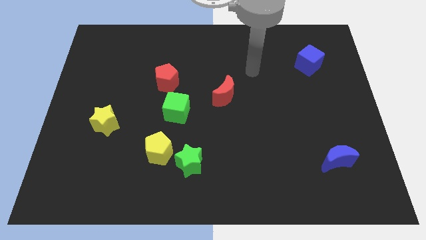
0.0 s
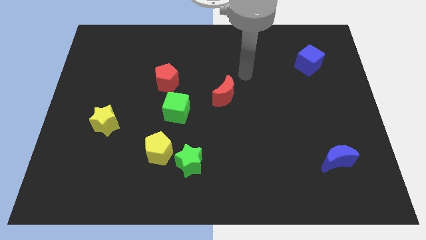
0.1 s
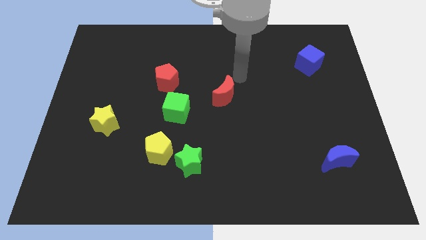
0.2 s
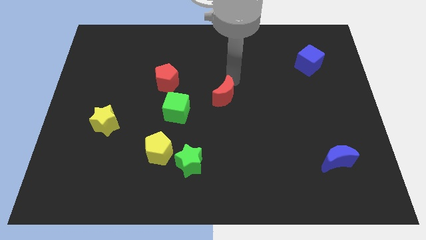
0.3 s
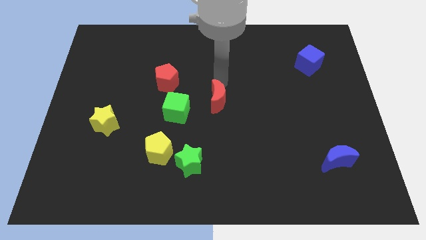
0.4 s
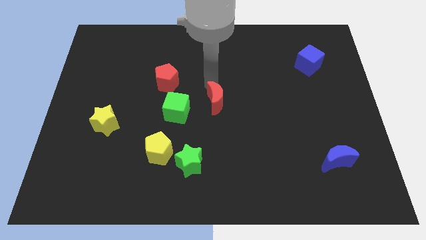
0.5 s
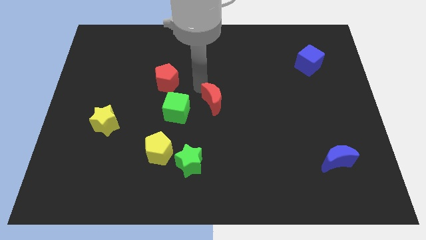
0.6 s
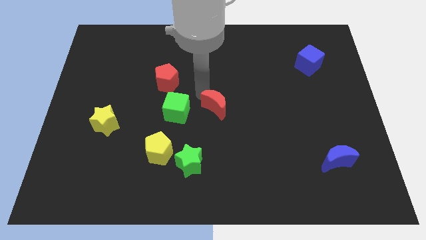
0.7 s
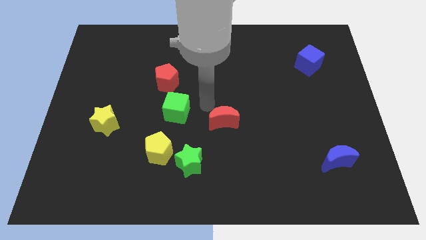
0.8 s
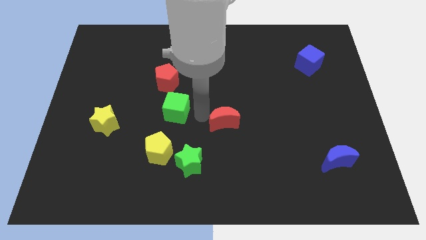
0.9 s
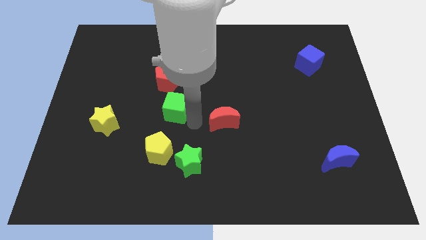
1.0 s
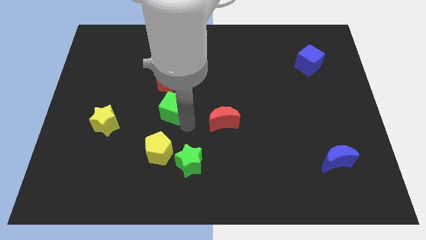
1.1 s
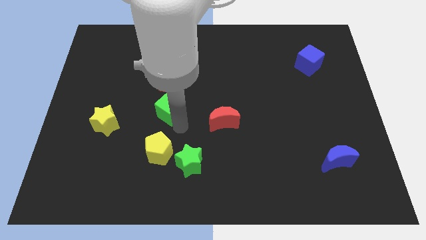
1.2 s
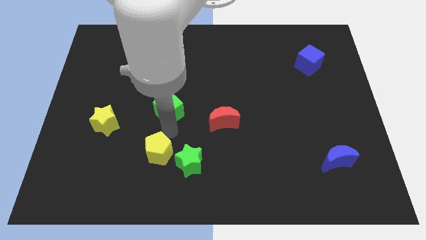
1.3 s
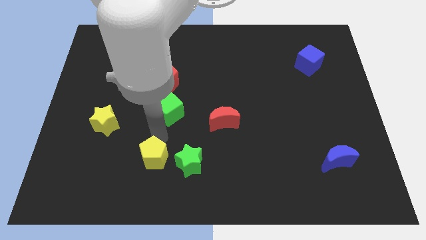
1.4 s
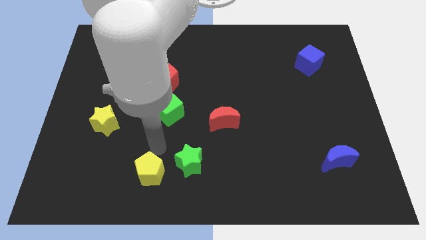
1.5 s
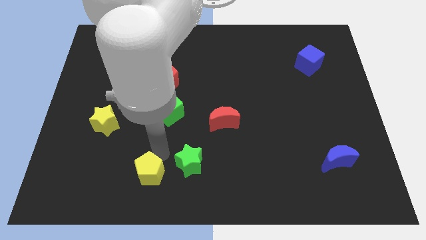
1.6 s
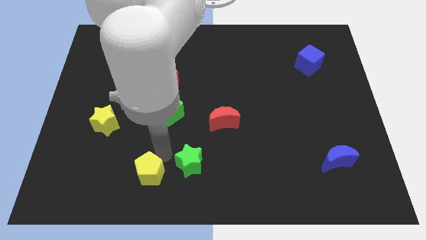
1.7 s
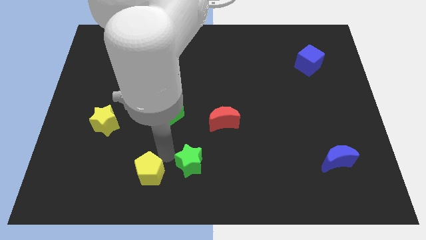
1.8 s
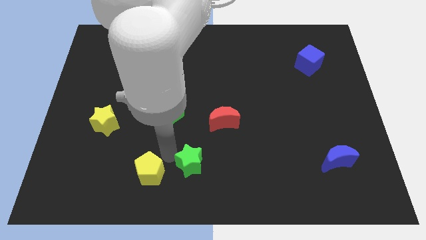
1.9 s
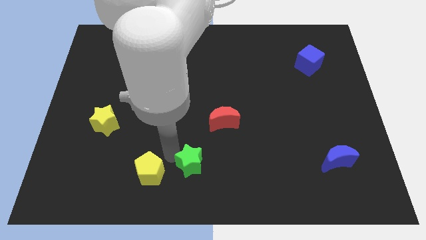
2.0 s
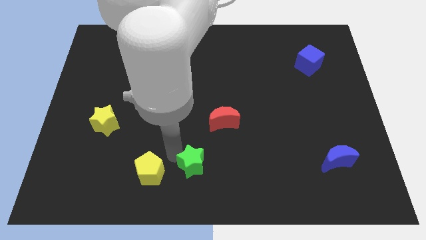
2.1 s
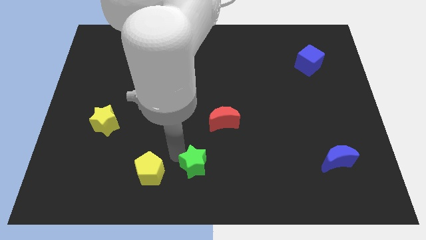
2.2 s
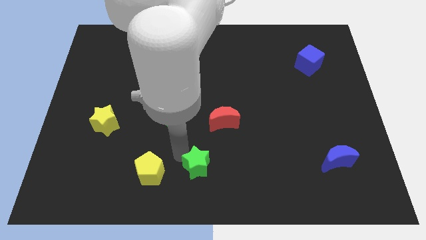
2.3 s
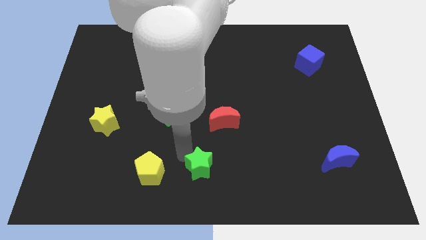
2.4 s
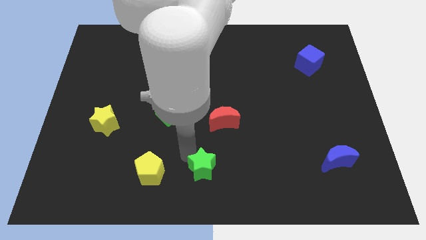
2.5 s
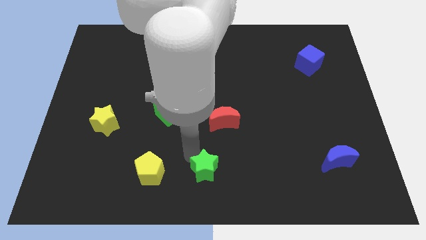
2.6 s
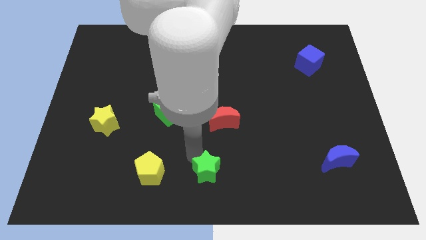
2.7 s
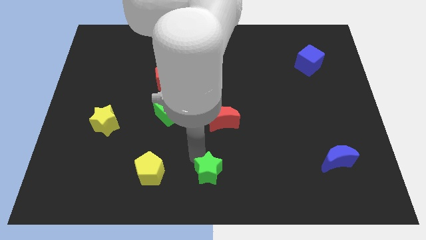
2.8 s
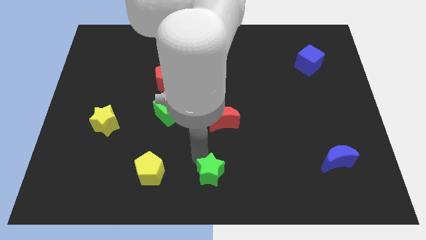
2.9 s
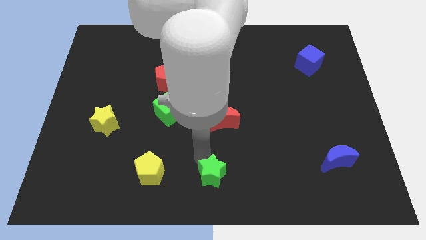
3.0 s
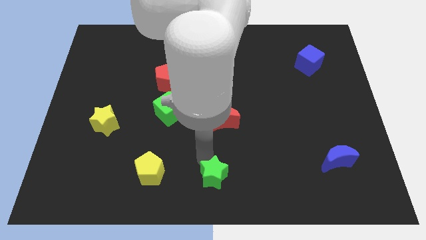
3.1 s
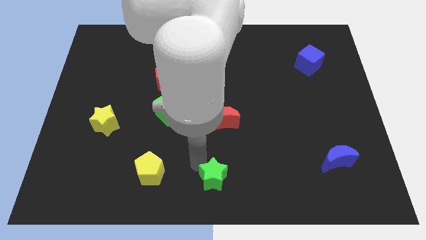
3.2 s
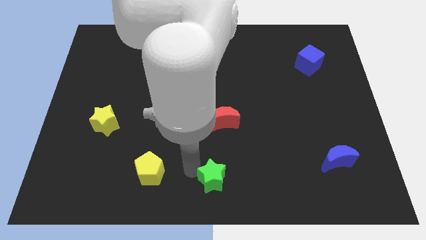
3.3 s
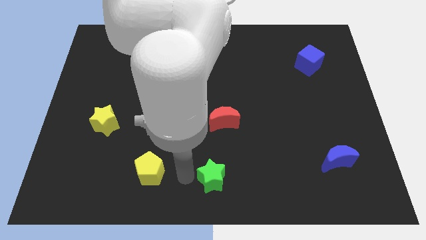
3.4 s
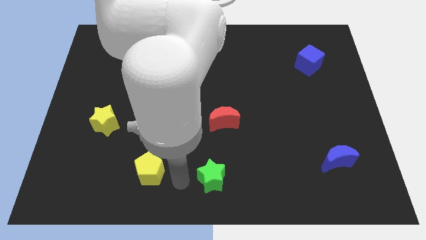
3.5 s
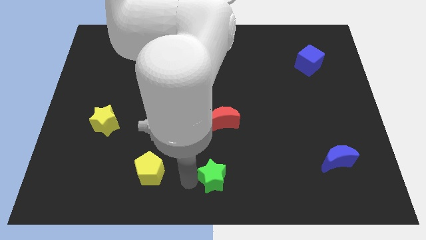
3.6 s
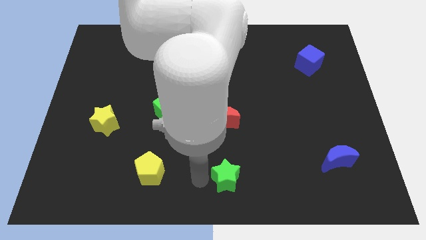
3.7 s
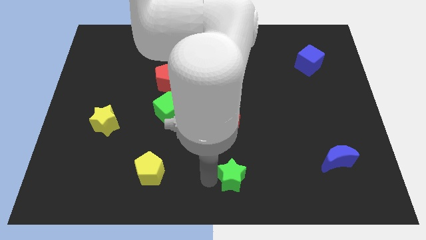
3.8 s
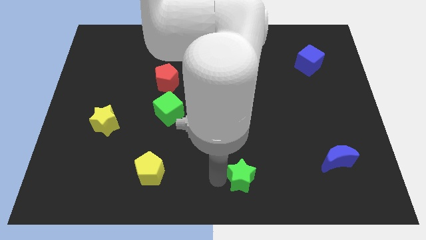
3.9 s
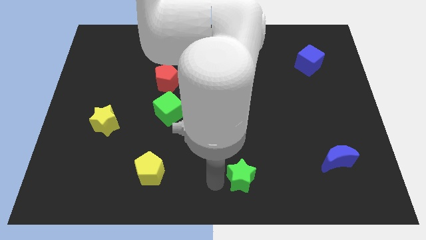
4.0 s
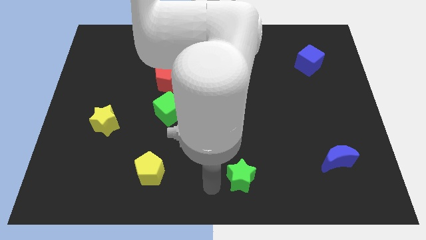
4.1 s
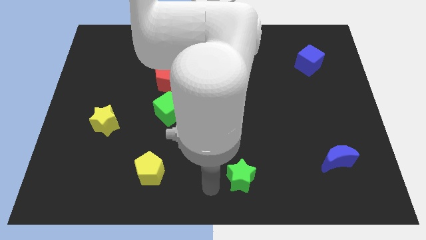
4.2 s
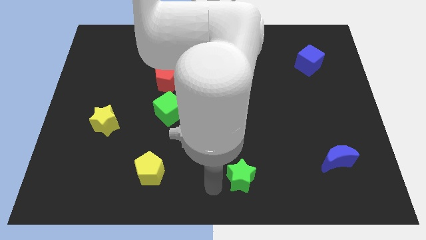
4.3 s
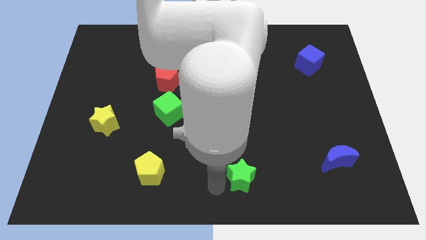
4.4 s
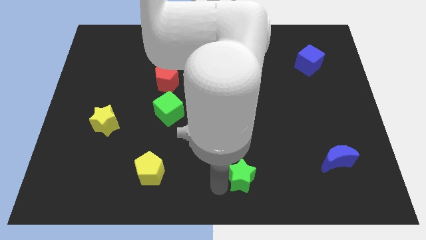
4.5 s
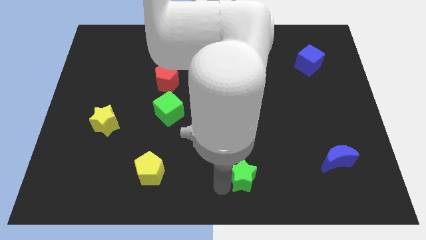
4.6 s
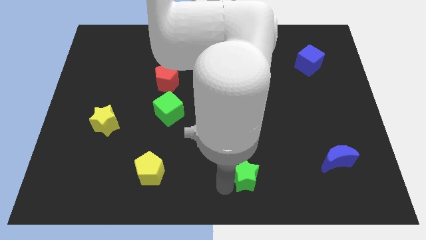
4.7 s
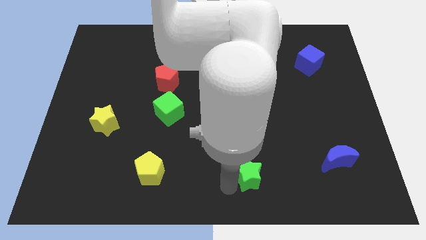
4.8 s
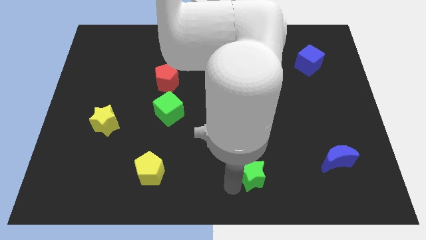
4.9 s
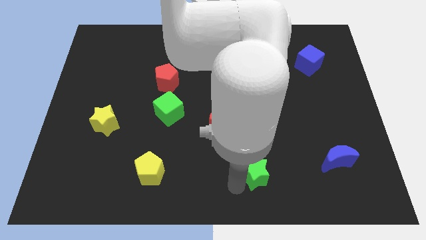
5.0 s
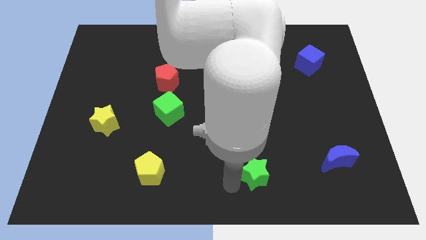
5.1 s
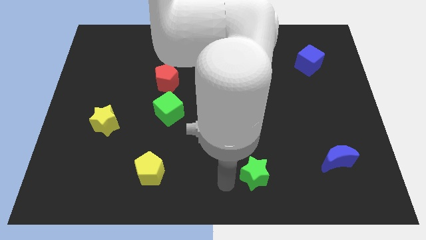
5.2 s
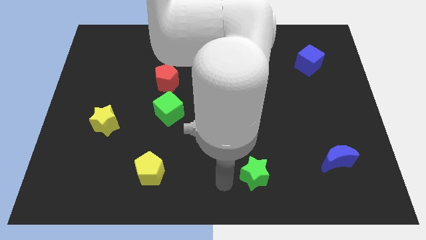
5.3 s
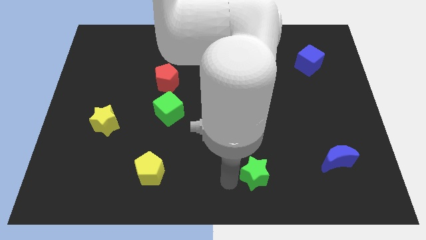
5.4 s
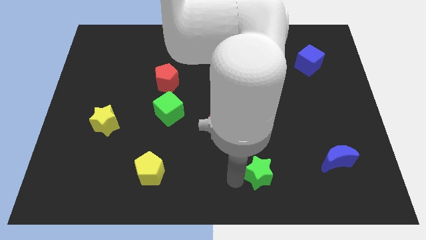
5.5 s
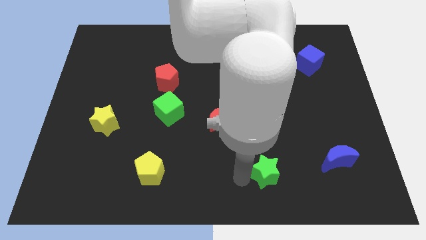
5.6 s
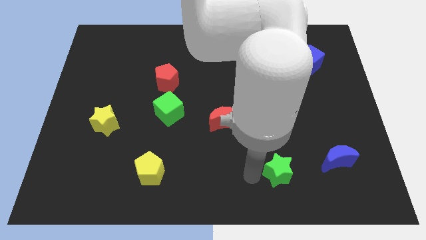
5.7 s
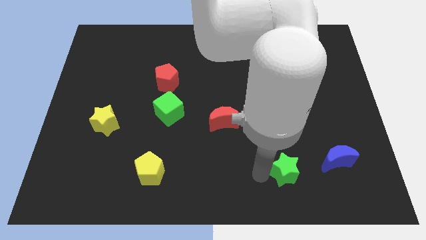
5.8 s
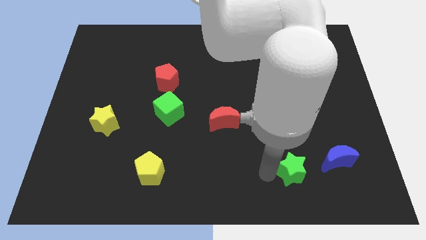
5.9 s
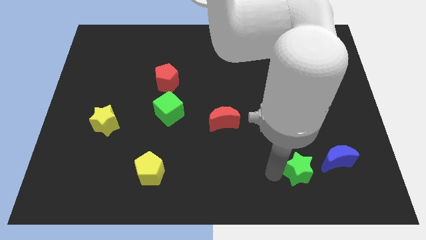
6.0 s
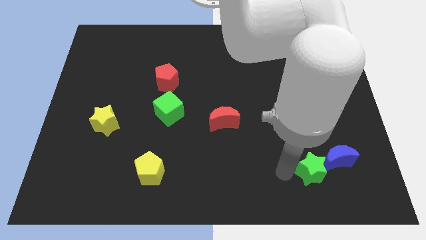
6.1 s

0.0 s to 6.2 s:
slide the green star towards the blue moon

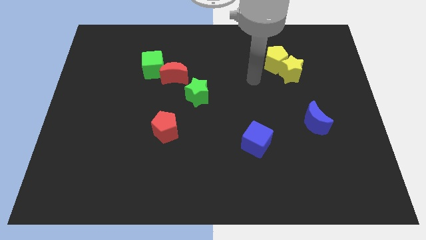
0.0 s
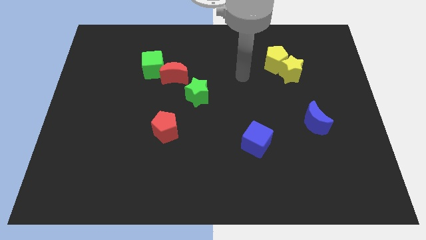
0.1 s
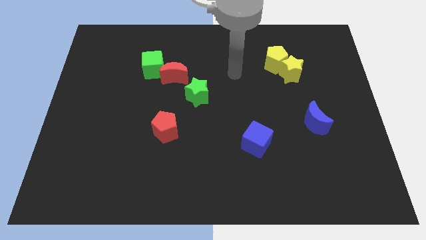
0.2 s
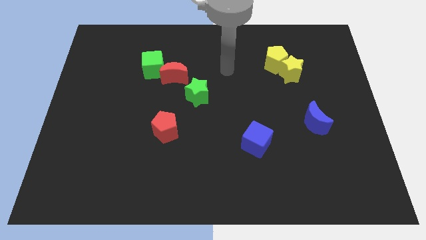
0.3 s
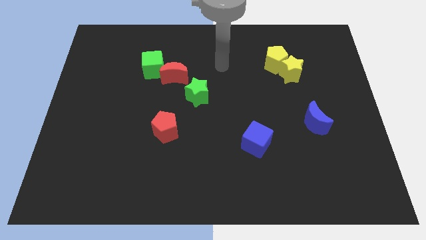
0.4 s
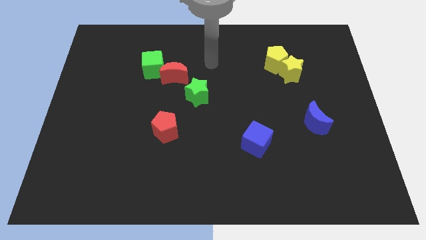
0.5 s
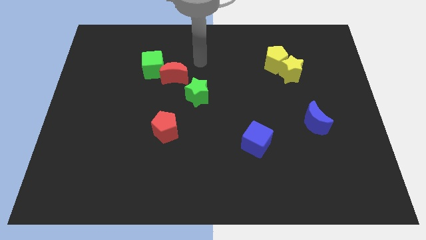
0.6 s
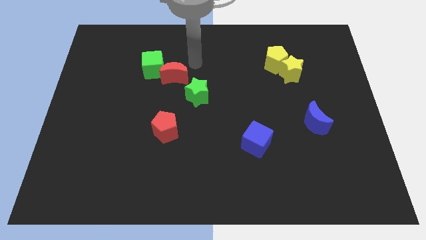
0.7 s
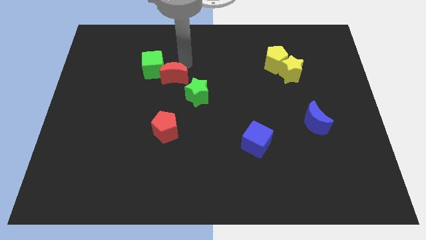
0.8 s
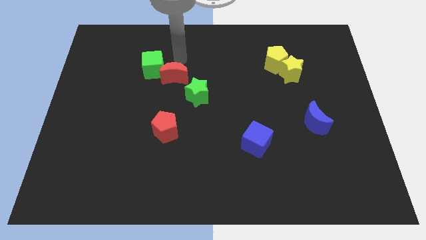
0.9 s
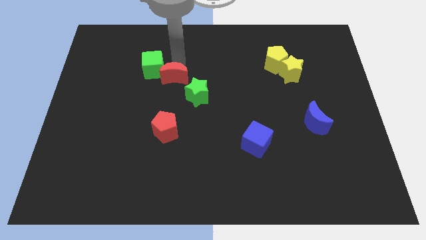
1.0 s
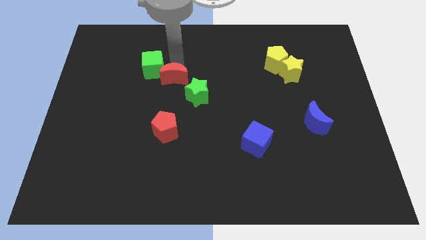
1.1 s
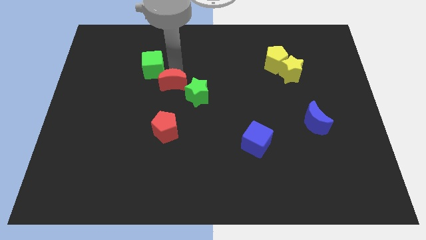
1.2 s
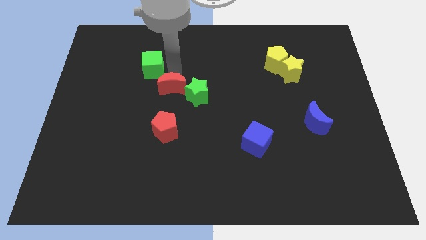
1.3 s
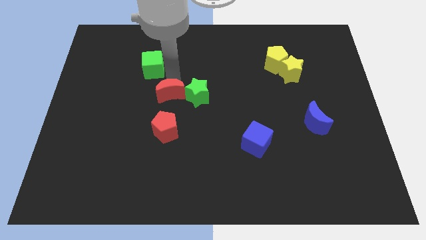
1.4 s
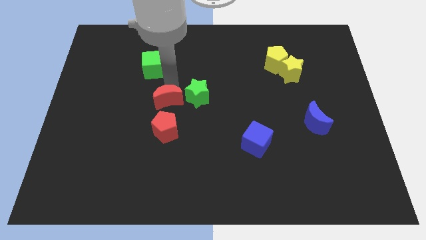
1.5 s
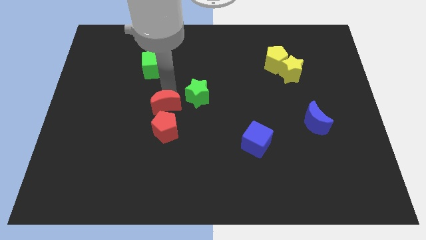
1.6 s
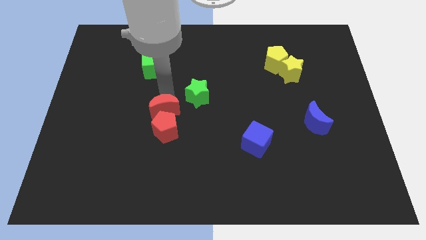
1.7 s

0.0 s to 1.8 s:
slide the red moon next to the red pentagon
